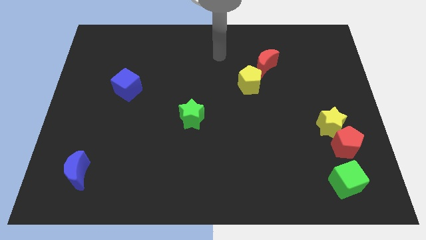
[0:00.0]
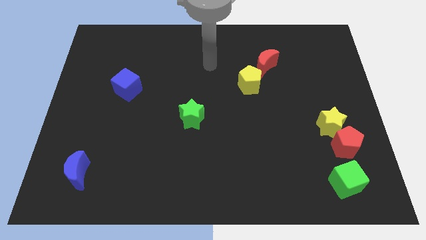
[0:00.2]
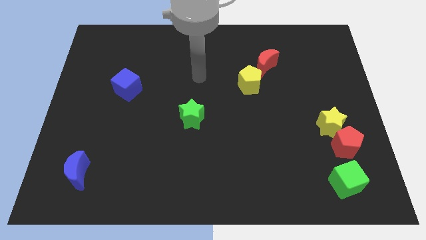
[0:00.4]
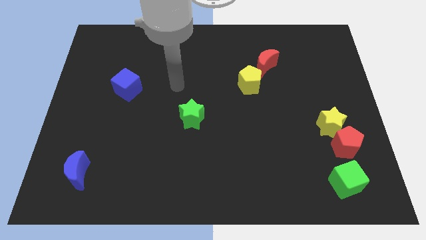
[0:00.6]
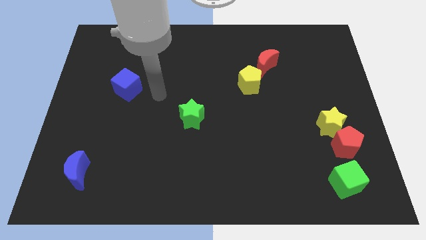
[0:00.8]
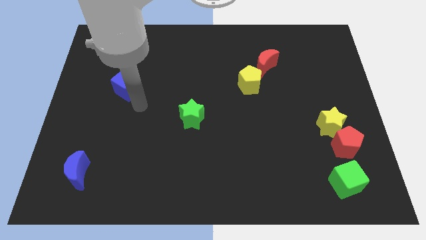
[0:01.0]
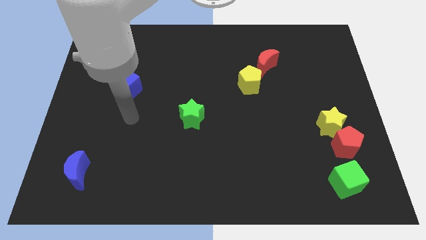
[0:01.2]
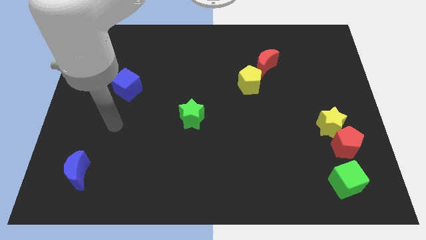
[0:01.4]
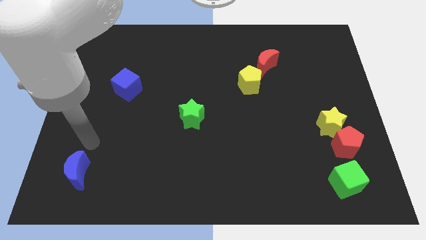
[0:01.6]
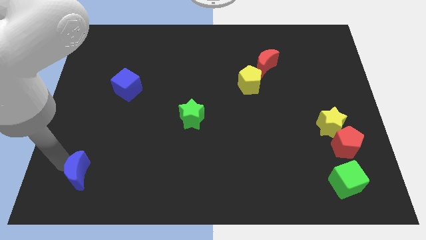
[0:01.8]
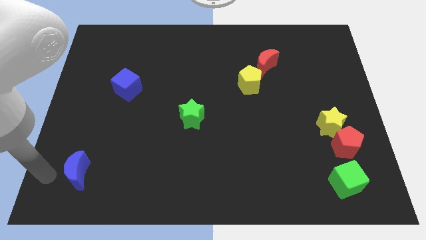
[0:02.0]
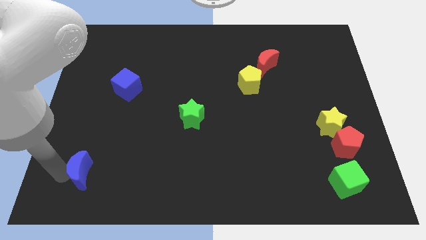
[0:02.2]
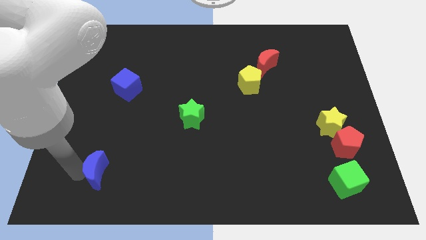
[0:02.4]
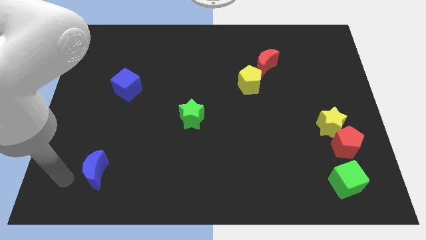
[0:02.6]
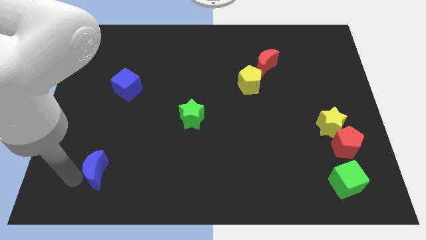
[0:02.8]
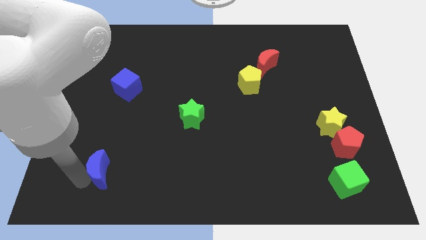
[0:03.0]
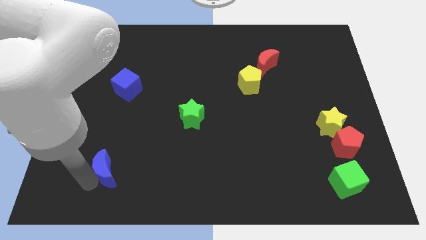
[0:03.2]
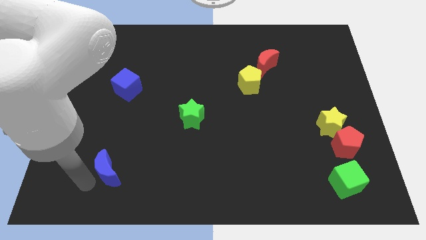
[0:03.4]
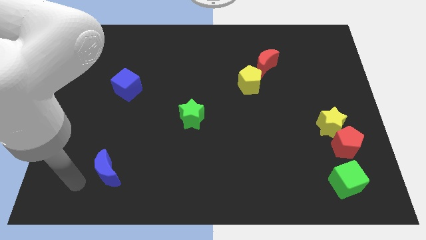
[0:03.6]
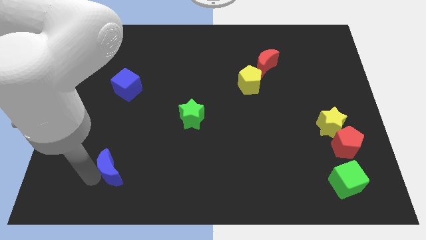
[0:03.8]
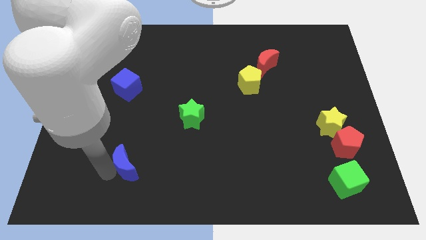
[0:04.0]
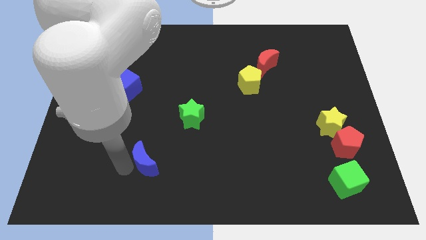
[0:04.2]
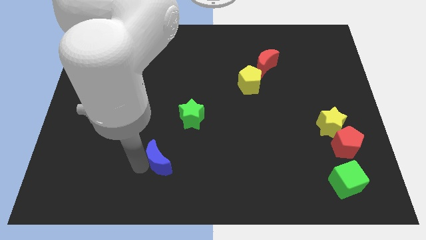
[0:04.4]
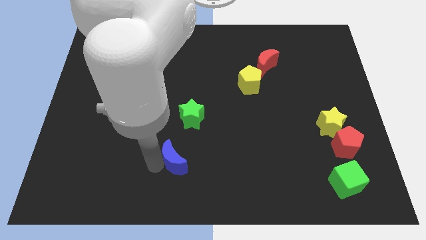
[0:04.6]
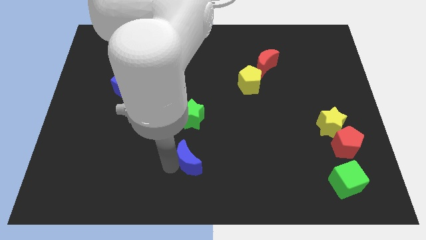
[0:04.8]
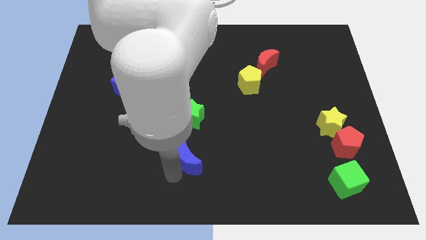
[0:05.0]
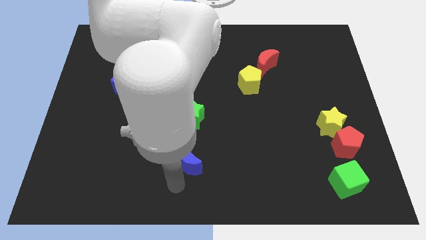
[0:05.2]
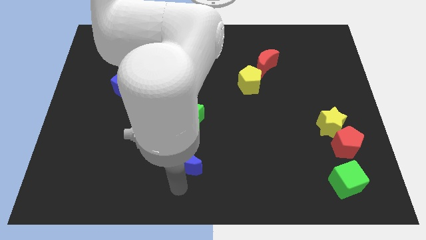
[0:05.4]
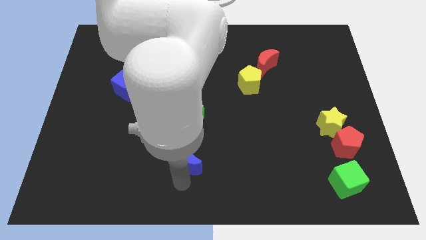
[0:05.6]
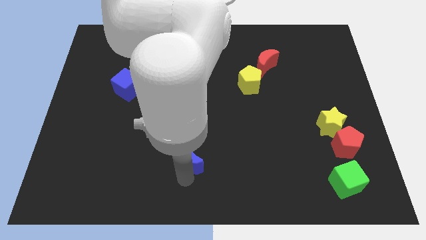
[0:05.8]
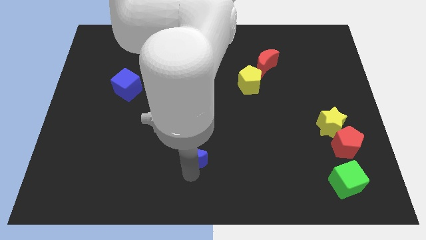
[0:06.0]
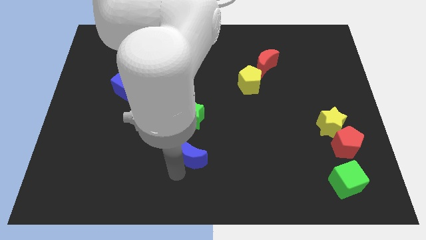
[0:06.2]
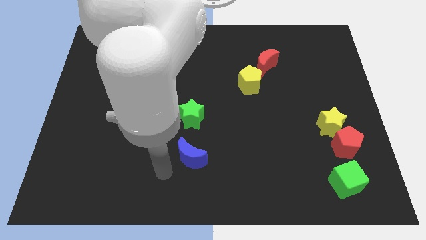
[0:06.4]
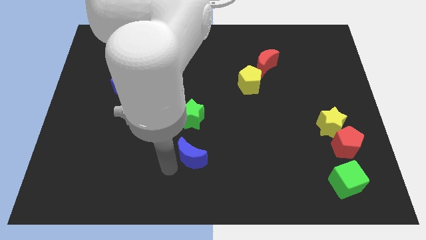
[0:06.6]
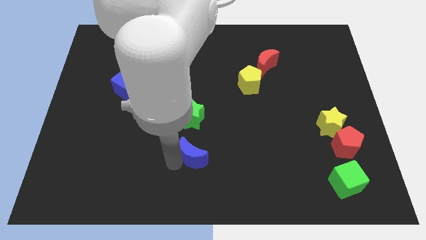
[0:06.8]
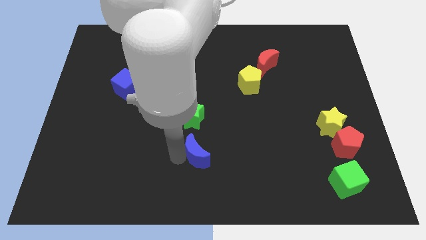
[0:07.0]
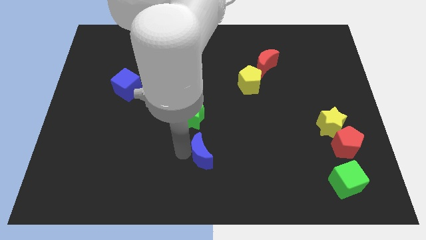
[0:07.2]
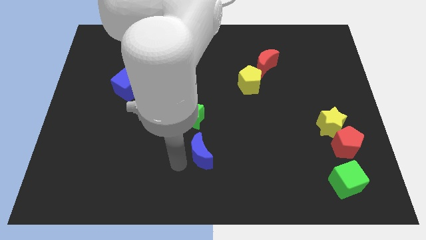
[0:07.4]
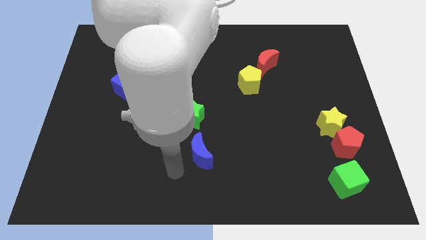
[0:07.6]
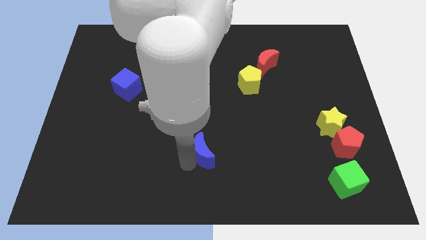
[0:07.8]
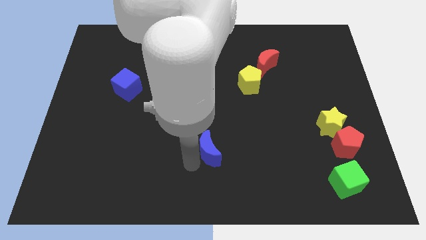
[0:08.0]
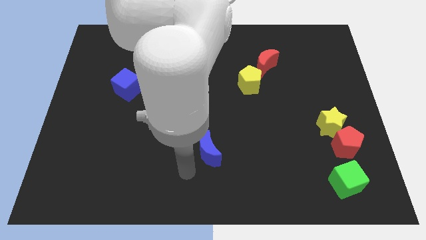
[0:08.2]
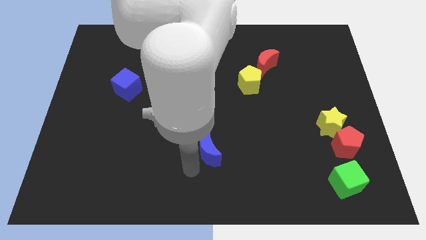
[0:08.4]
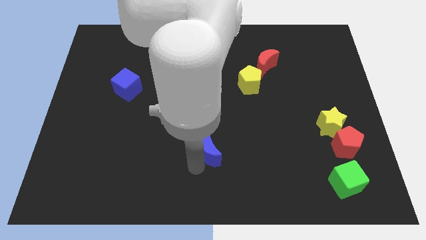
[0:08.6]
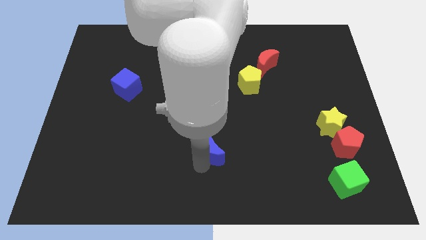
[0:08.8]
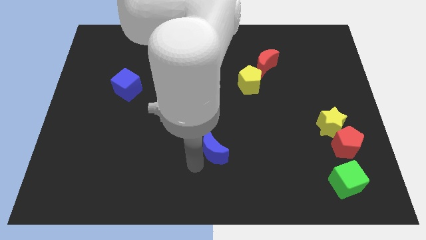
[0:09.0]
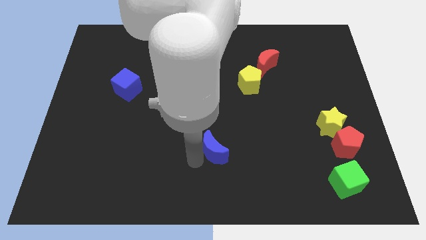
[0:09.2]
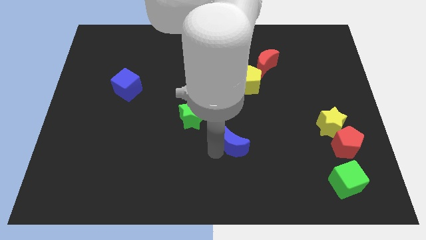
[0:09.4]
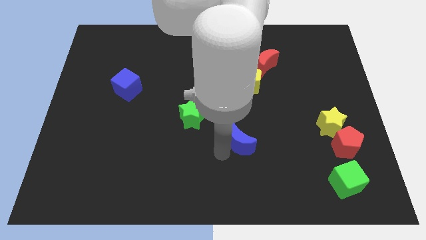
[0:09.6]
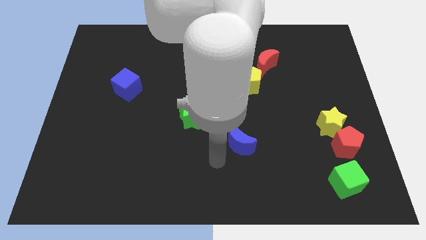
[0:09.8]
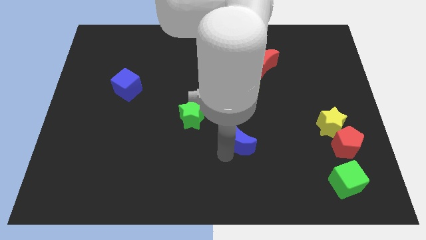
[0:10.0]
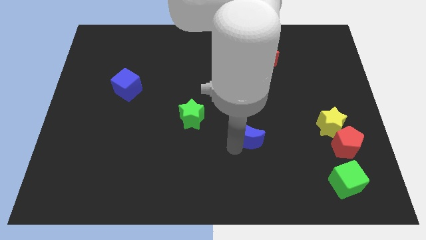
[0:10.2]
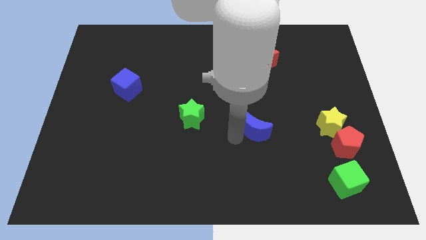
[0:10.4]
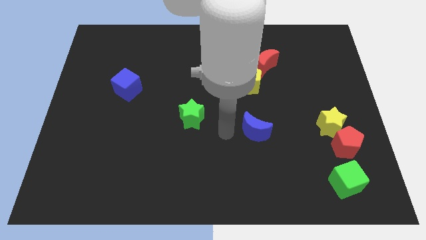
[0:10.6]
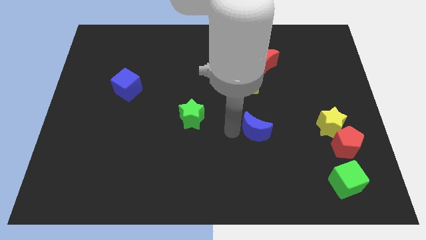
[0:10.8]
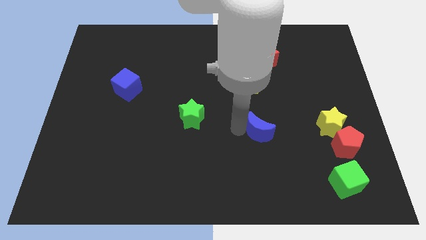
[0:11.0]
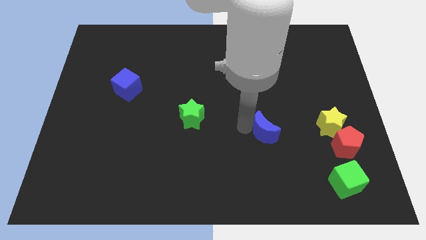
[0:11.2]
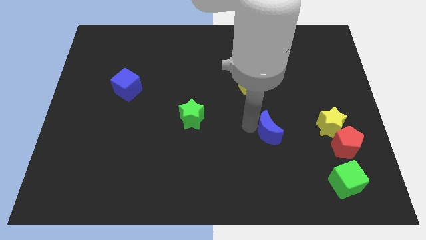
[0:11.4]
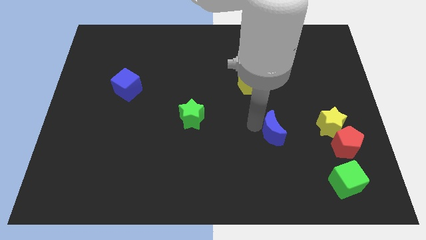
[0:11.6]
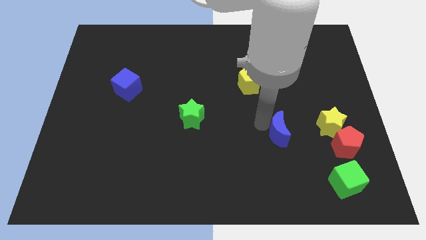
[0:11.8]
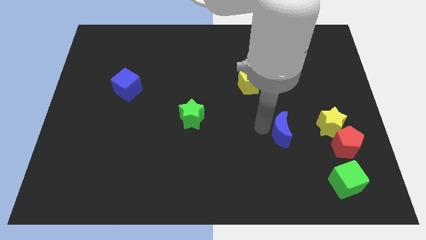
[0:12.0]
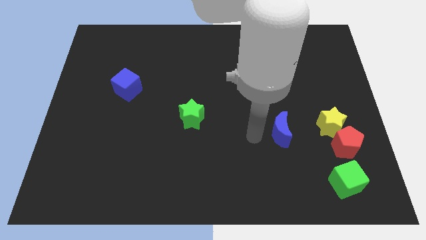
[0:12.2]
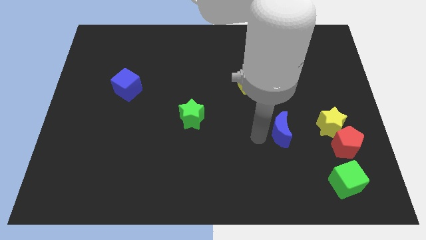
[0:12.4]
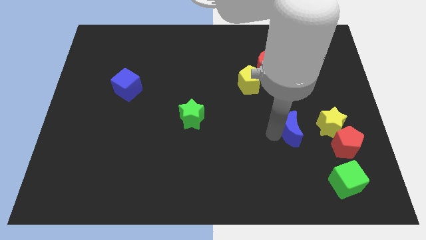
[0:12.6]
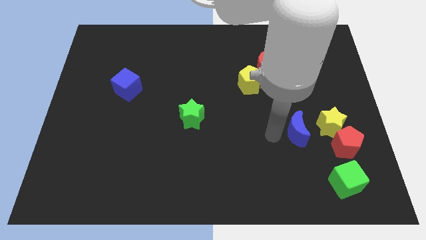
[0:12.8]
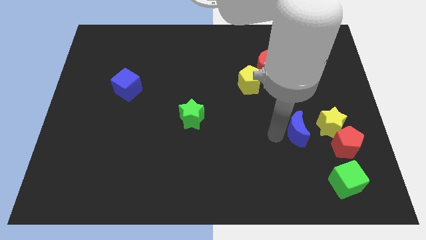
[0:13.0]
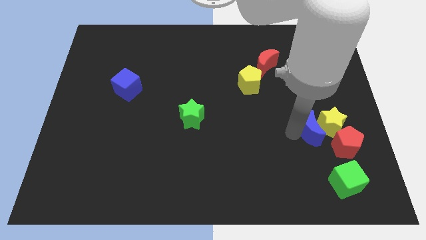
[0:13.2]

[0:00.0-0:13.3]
push the blue moon towards the yellow star

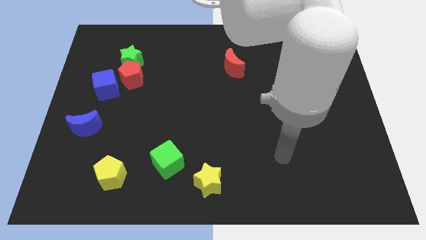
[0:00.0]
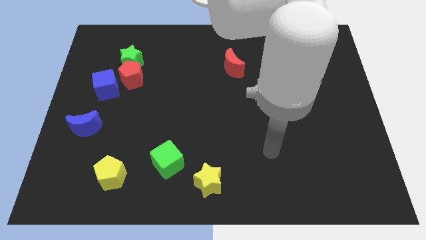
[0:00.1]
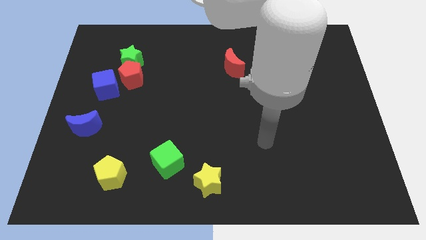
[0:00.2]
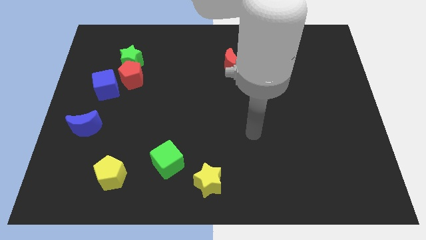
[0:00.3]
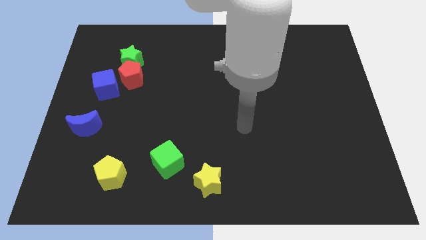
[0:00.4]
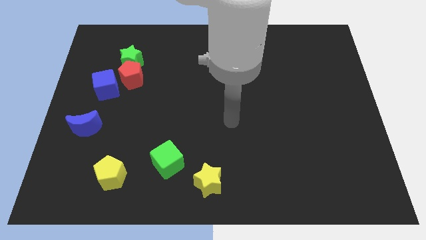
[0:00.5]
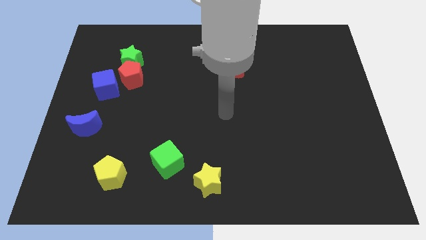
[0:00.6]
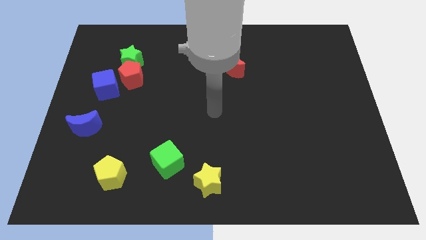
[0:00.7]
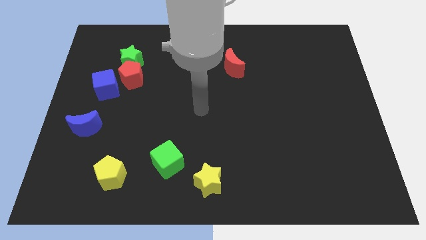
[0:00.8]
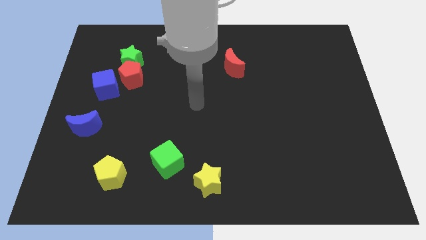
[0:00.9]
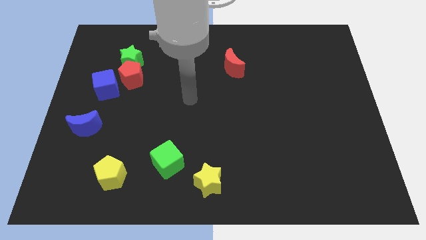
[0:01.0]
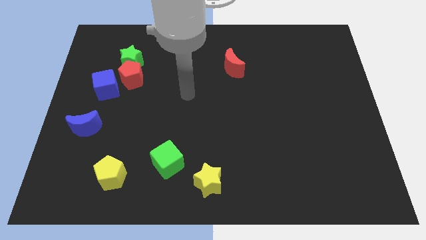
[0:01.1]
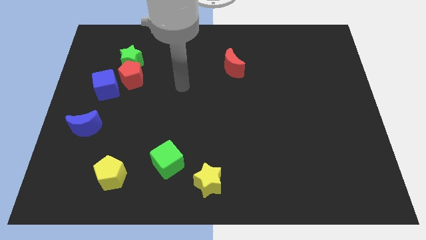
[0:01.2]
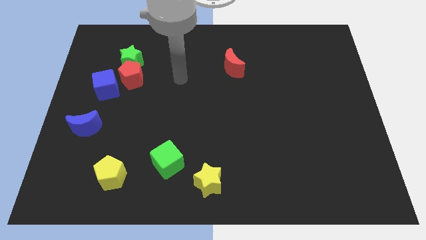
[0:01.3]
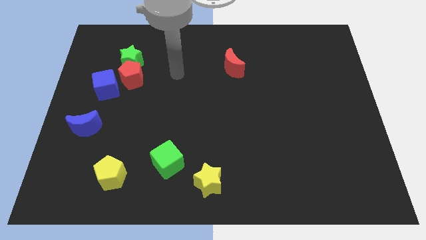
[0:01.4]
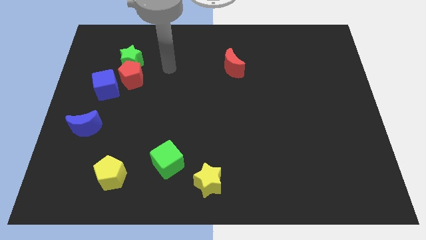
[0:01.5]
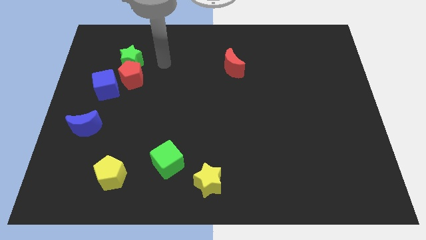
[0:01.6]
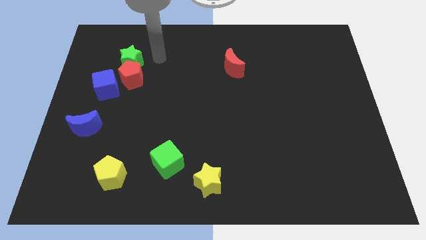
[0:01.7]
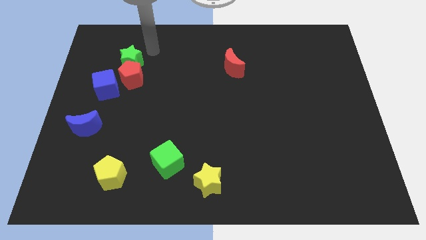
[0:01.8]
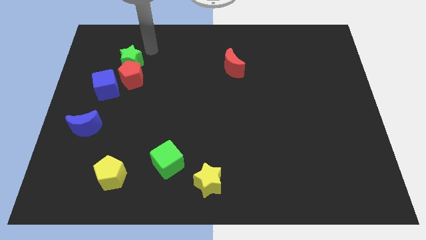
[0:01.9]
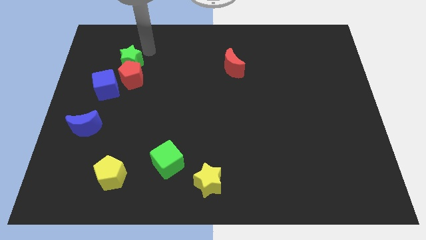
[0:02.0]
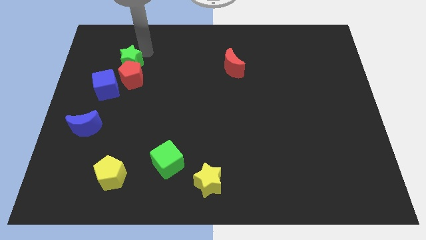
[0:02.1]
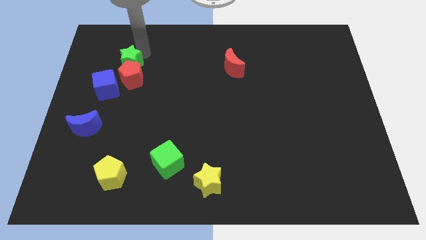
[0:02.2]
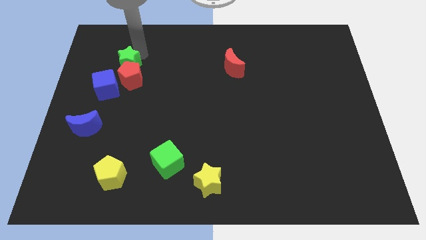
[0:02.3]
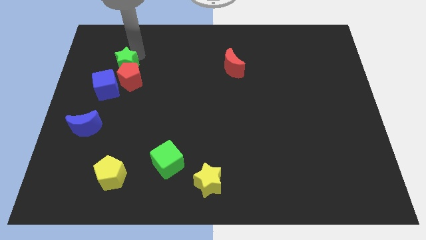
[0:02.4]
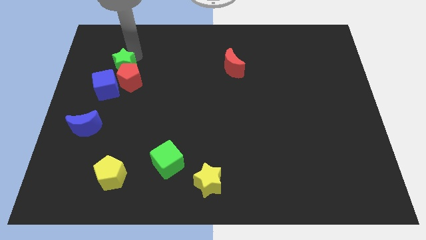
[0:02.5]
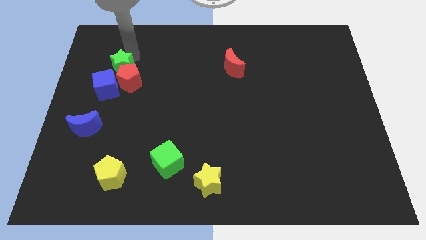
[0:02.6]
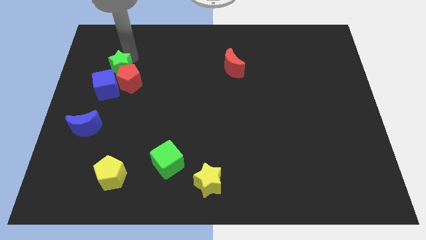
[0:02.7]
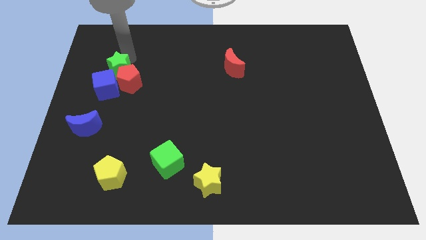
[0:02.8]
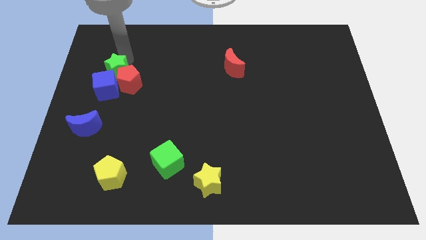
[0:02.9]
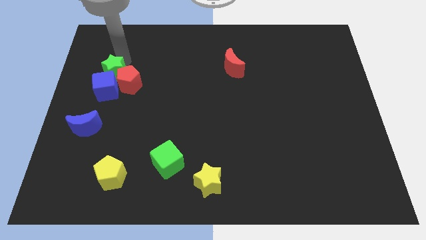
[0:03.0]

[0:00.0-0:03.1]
move the green star close to the blue cube
